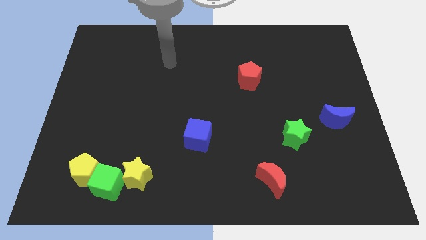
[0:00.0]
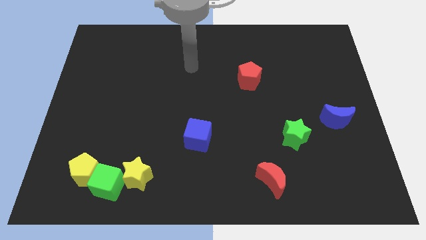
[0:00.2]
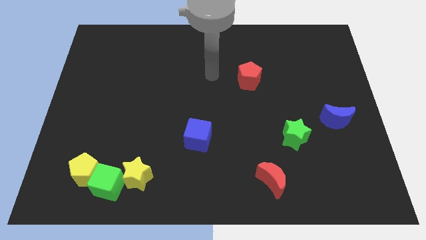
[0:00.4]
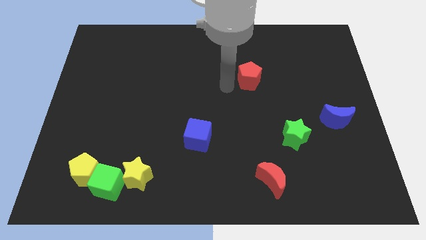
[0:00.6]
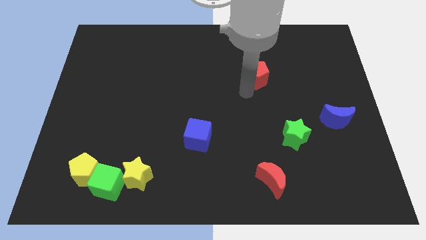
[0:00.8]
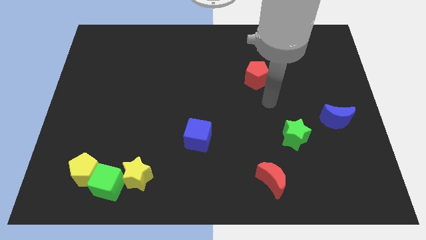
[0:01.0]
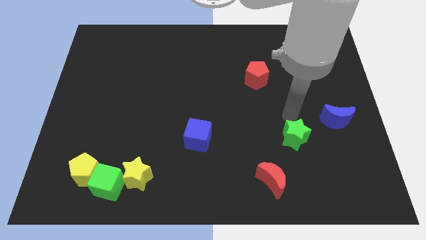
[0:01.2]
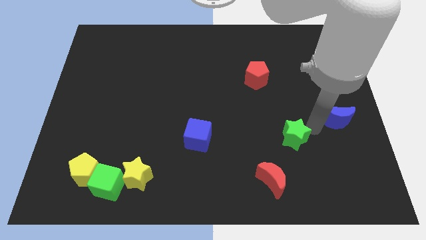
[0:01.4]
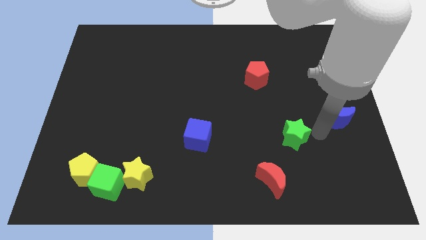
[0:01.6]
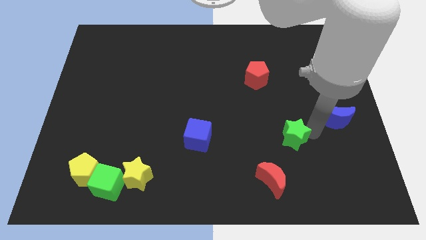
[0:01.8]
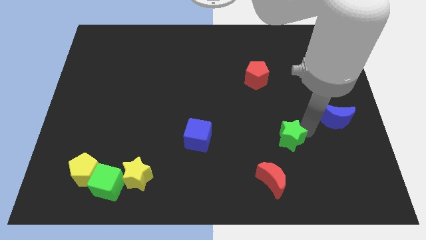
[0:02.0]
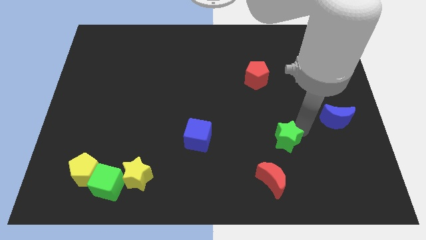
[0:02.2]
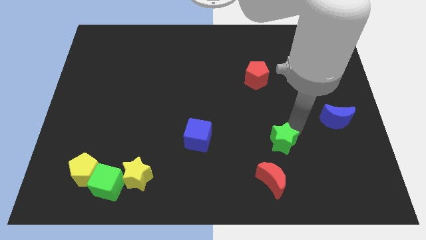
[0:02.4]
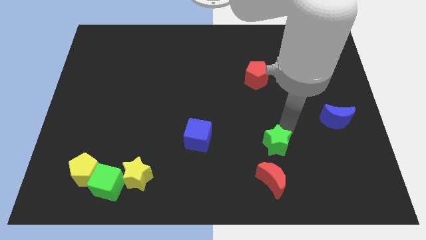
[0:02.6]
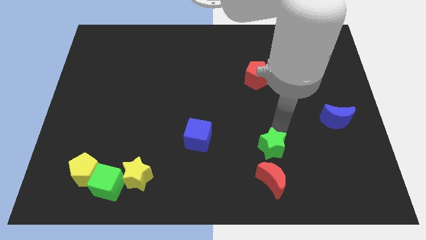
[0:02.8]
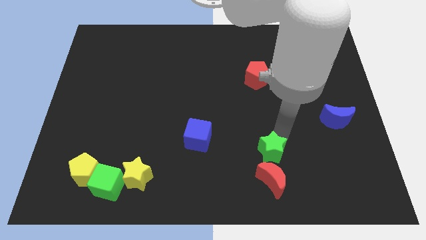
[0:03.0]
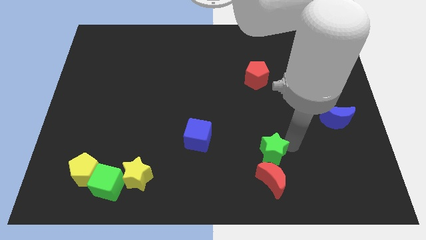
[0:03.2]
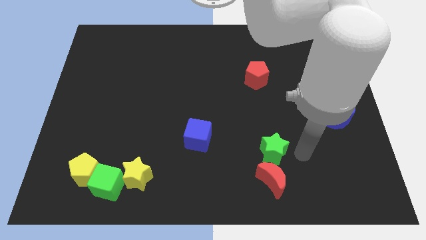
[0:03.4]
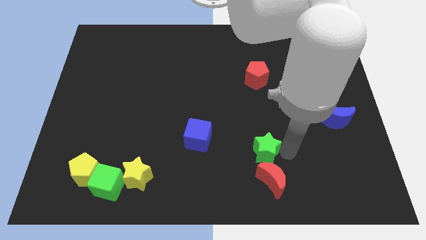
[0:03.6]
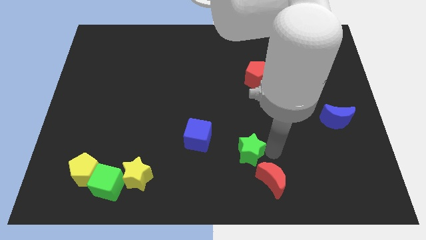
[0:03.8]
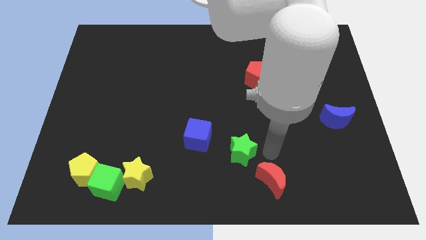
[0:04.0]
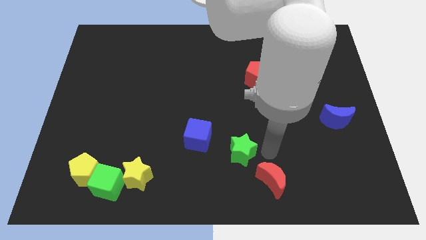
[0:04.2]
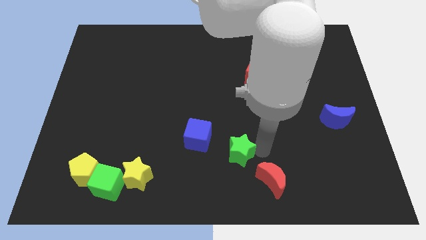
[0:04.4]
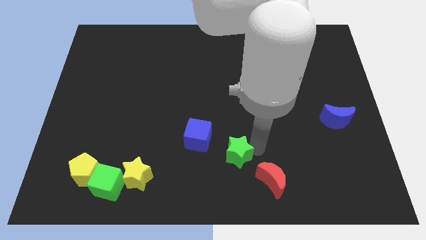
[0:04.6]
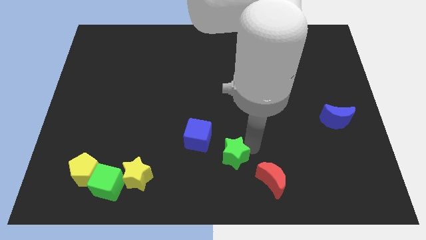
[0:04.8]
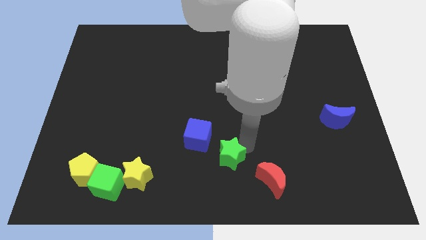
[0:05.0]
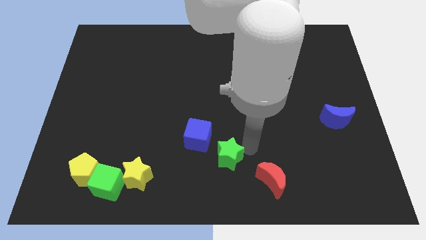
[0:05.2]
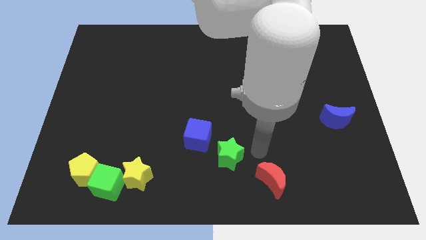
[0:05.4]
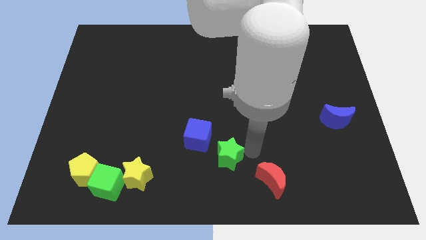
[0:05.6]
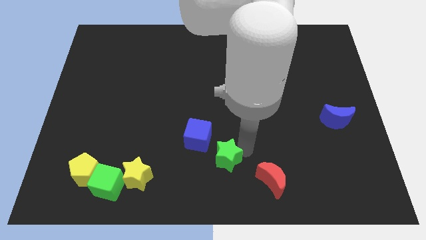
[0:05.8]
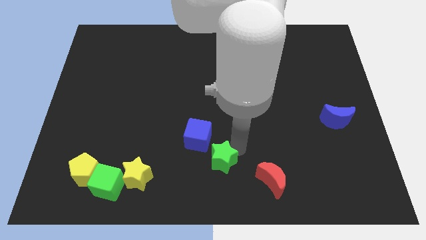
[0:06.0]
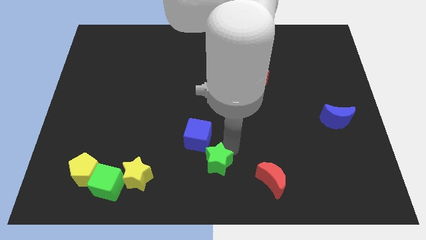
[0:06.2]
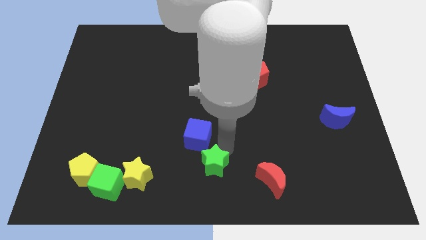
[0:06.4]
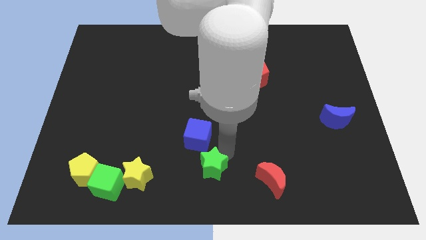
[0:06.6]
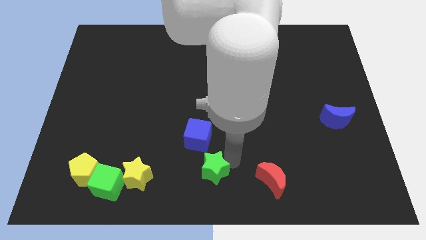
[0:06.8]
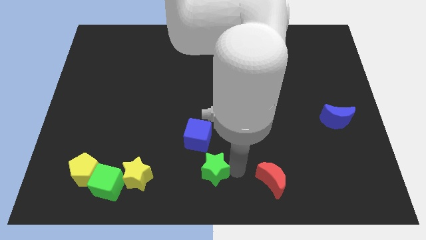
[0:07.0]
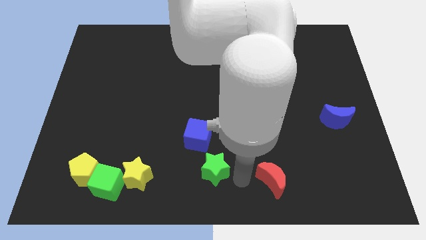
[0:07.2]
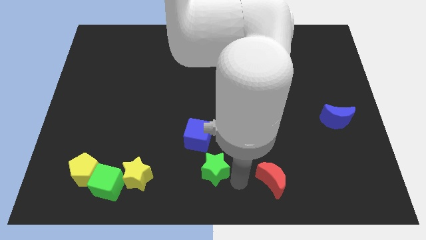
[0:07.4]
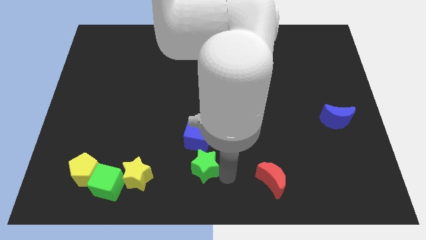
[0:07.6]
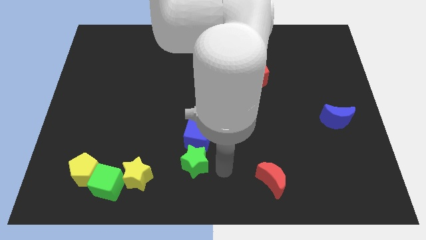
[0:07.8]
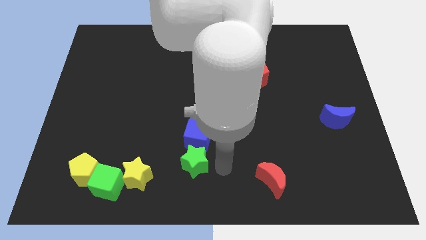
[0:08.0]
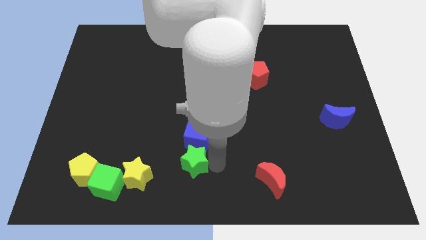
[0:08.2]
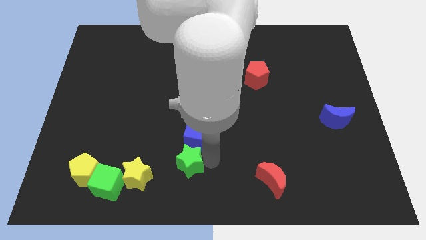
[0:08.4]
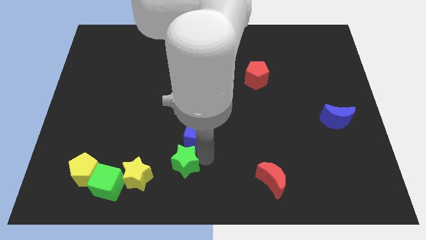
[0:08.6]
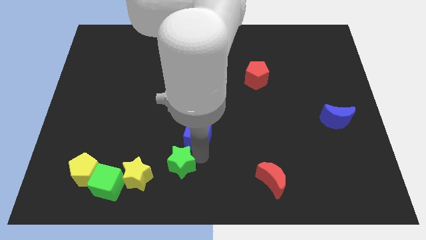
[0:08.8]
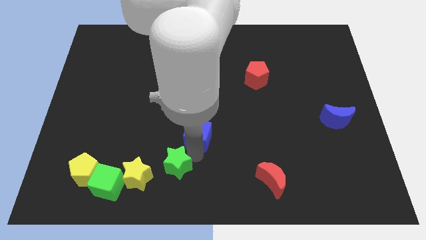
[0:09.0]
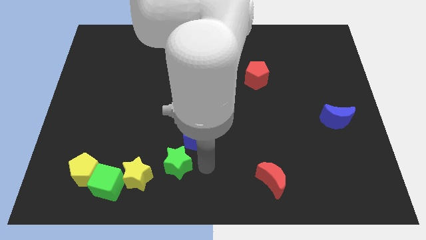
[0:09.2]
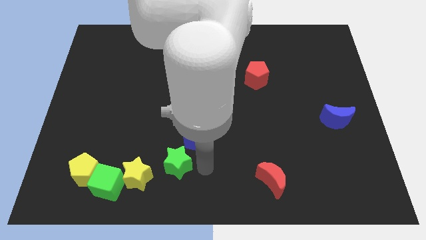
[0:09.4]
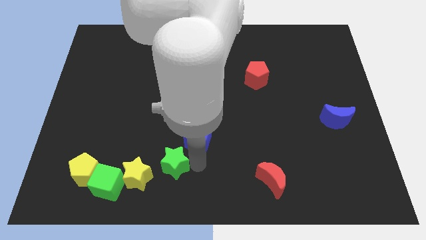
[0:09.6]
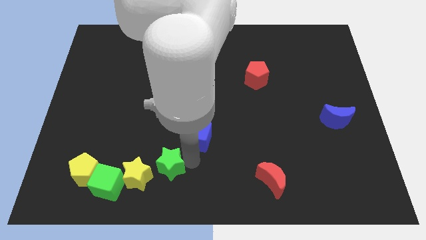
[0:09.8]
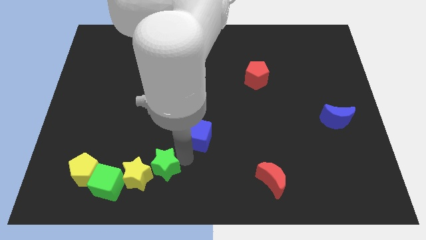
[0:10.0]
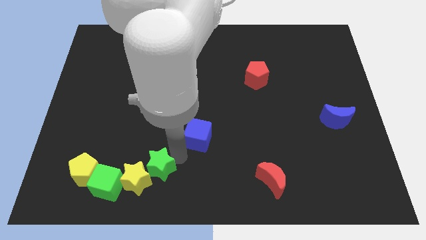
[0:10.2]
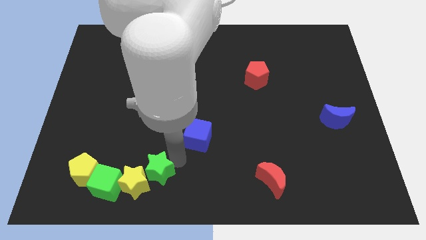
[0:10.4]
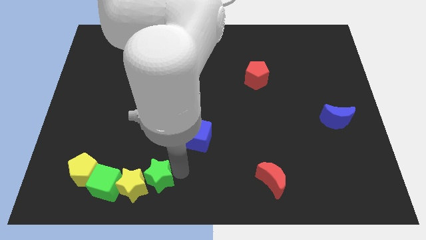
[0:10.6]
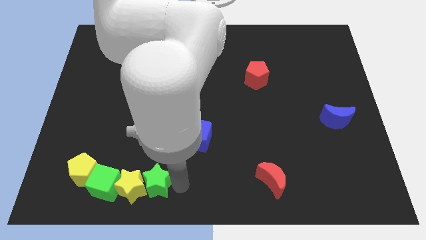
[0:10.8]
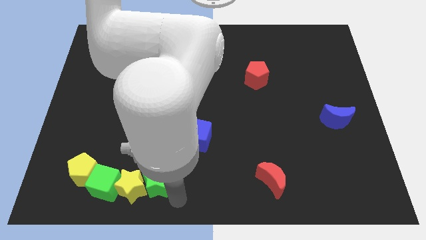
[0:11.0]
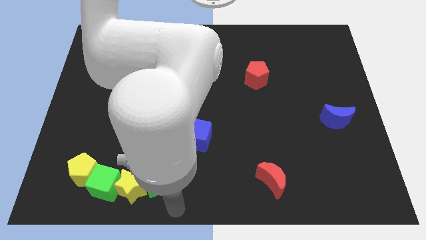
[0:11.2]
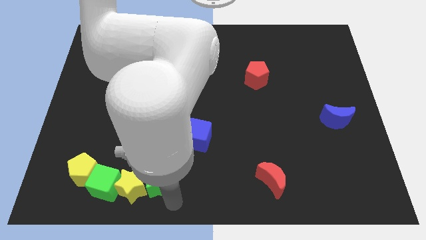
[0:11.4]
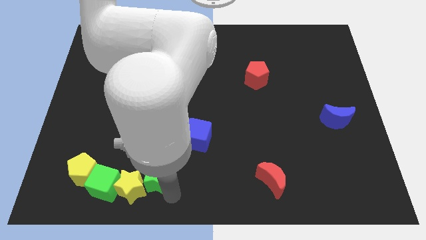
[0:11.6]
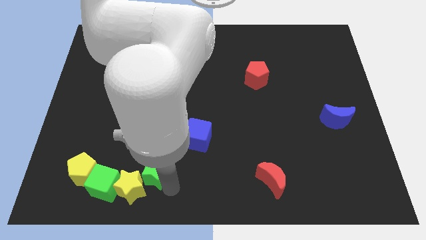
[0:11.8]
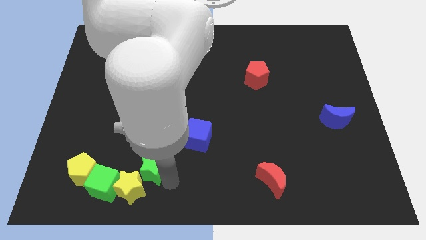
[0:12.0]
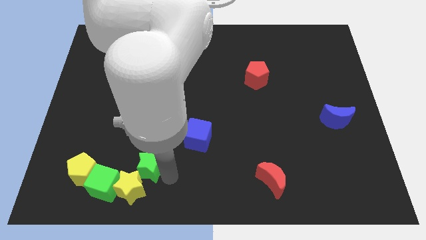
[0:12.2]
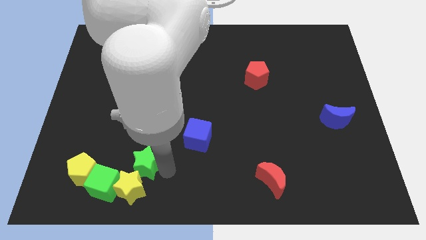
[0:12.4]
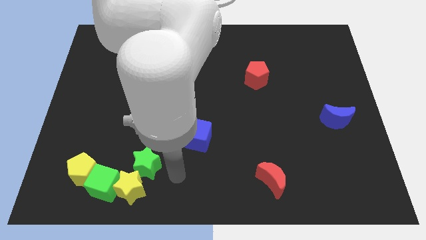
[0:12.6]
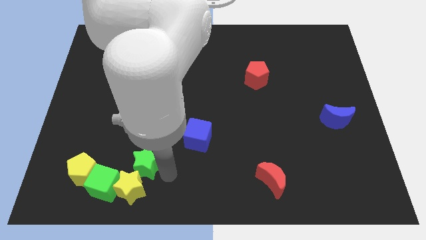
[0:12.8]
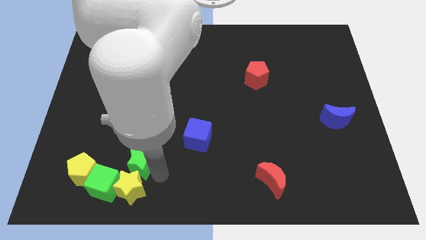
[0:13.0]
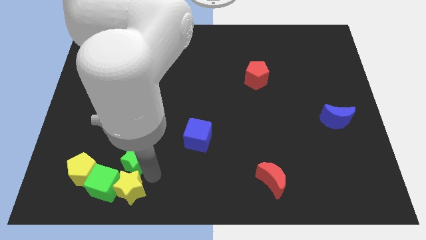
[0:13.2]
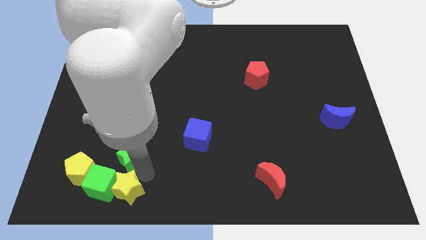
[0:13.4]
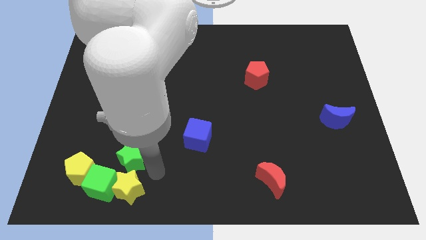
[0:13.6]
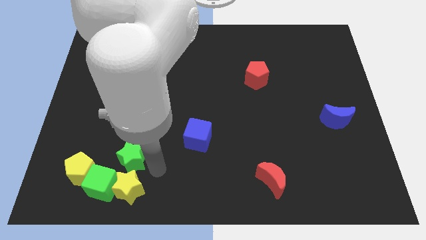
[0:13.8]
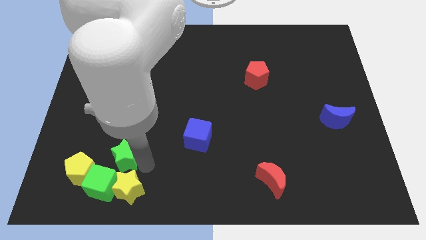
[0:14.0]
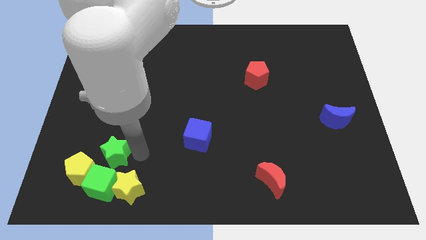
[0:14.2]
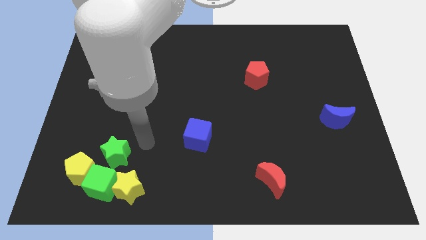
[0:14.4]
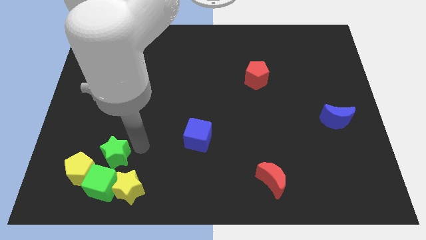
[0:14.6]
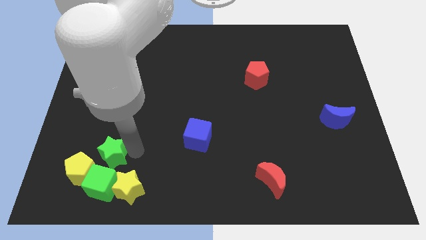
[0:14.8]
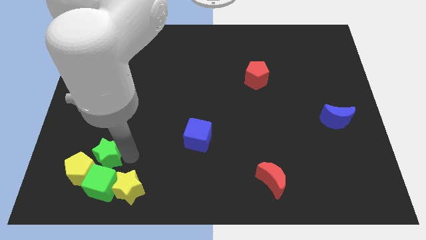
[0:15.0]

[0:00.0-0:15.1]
put the green star next to the yellow pentagon
